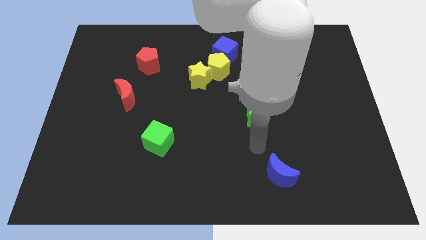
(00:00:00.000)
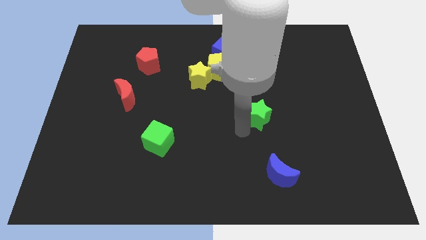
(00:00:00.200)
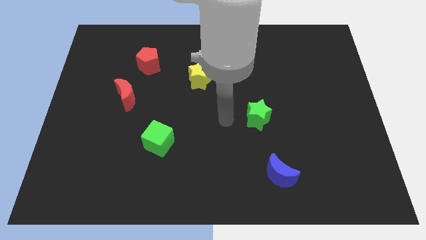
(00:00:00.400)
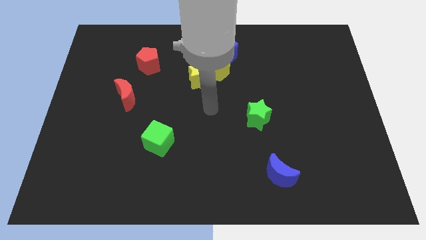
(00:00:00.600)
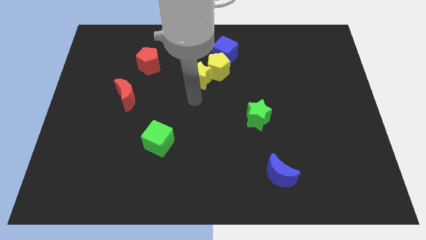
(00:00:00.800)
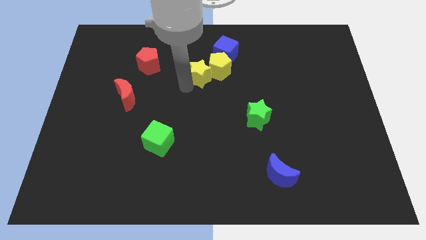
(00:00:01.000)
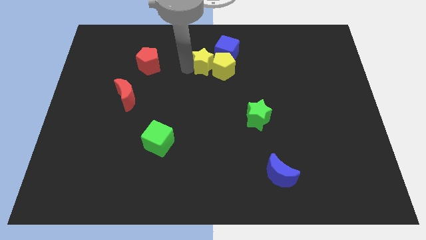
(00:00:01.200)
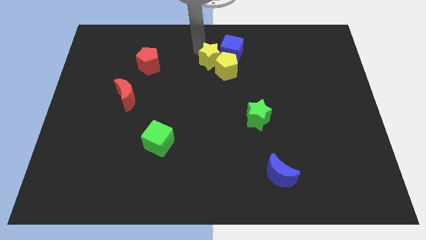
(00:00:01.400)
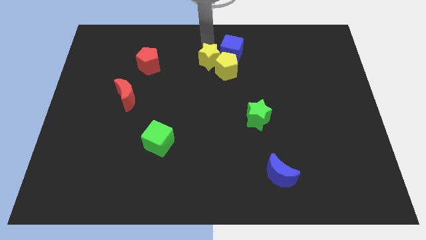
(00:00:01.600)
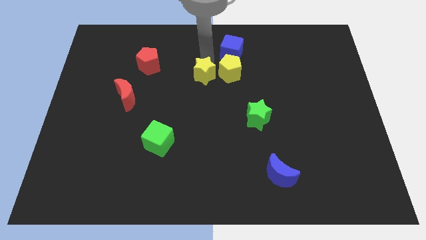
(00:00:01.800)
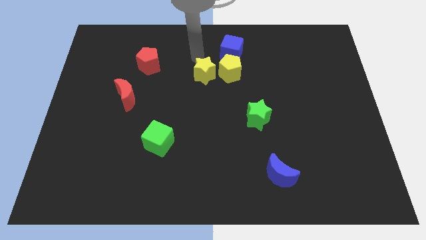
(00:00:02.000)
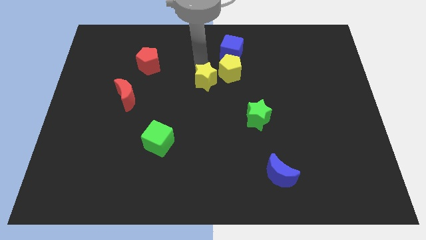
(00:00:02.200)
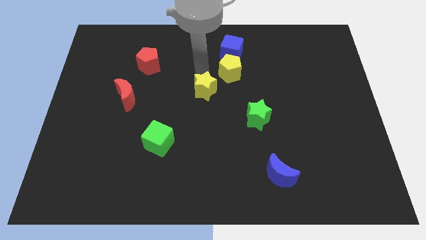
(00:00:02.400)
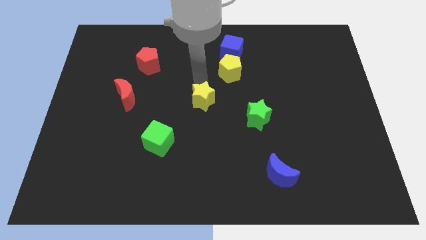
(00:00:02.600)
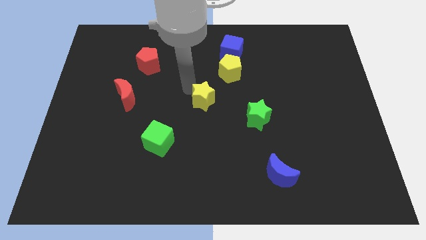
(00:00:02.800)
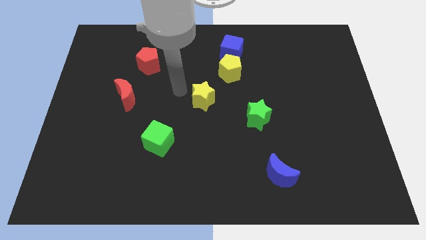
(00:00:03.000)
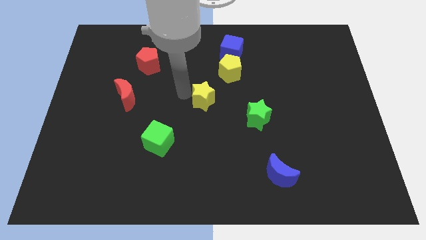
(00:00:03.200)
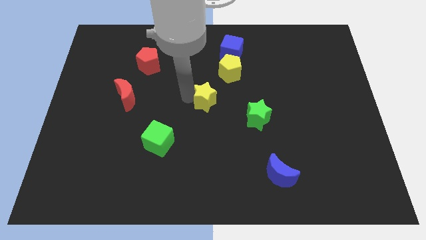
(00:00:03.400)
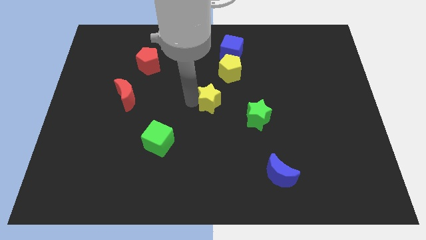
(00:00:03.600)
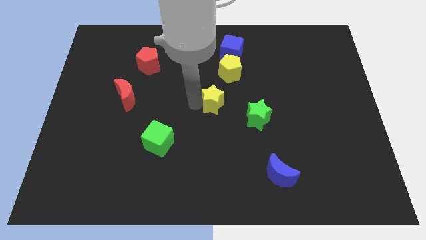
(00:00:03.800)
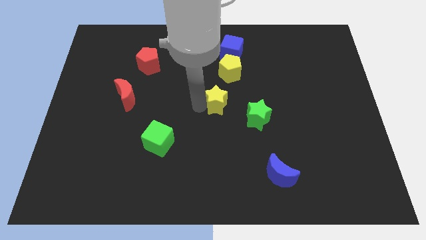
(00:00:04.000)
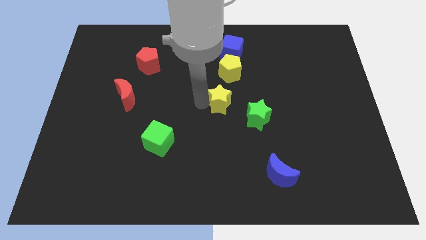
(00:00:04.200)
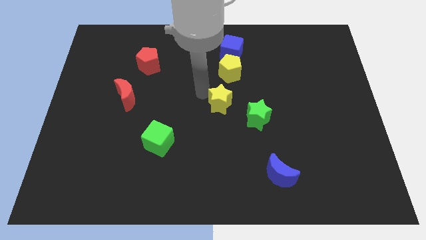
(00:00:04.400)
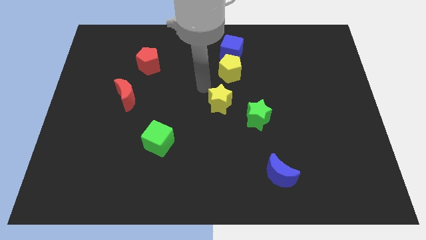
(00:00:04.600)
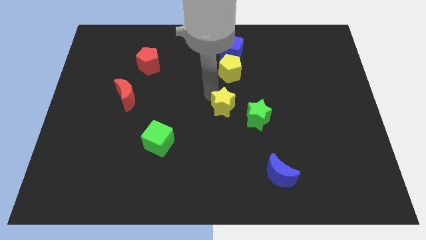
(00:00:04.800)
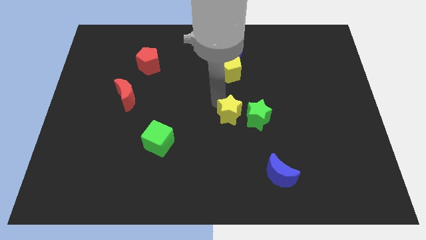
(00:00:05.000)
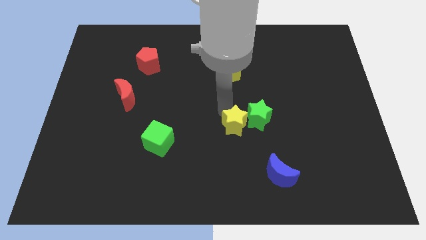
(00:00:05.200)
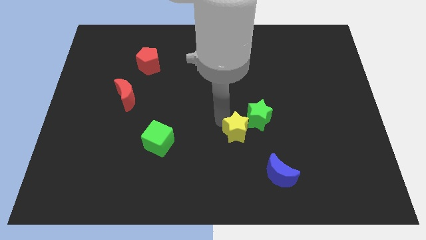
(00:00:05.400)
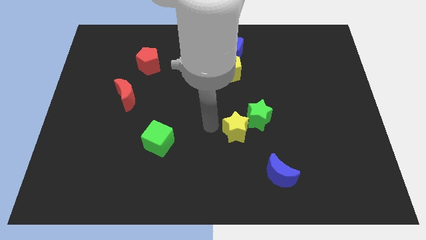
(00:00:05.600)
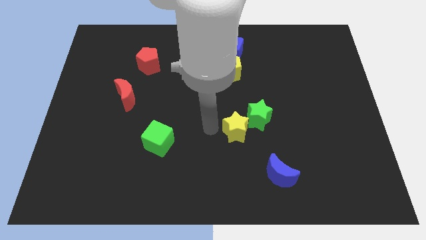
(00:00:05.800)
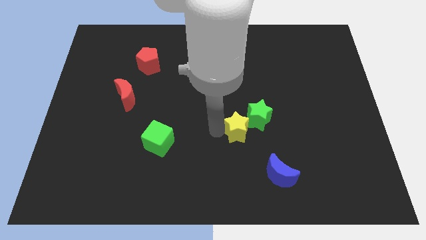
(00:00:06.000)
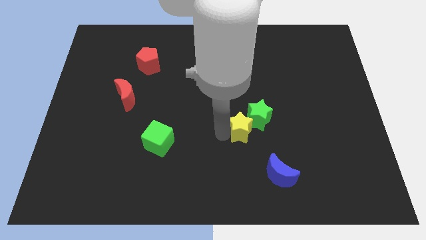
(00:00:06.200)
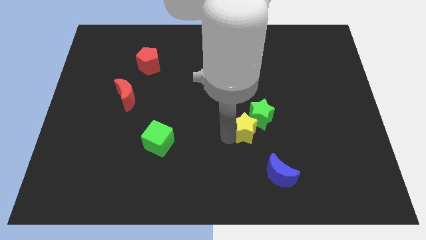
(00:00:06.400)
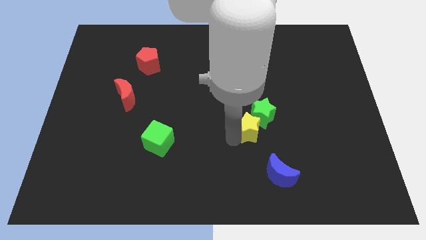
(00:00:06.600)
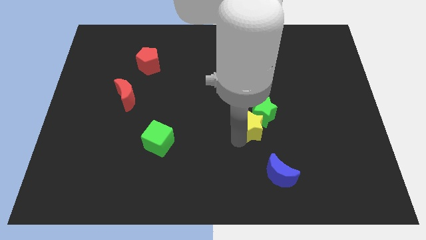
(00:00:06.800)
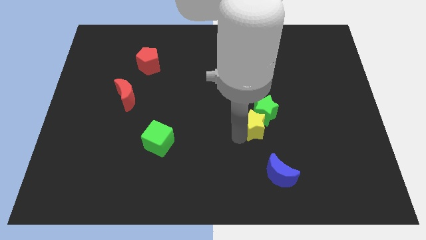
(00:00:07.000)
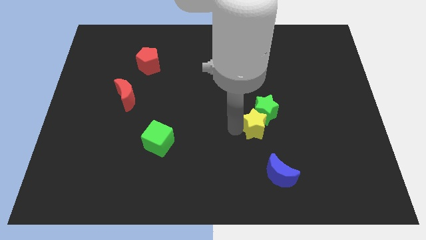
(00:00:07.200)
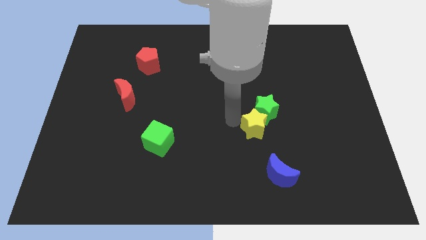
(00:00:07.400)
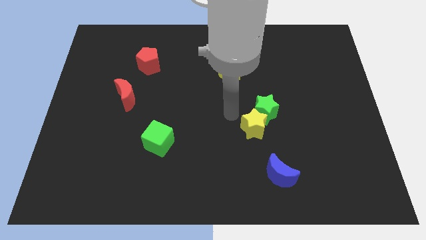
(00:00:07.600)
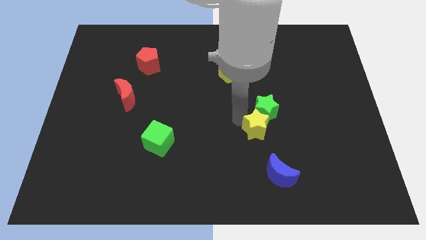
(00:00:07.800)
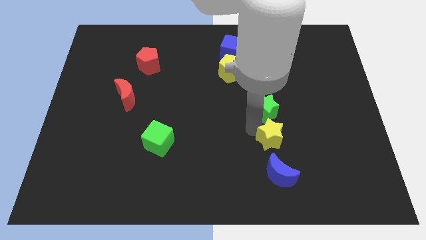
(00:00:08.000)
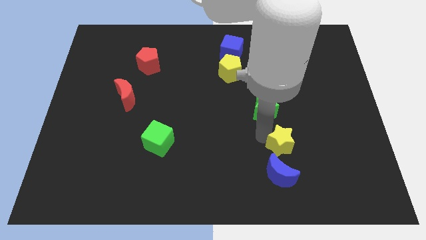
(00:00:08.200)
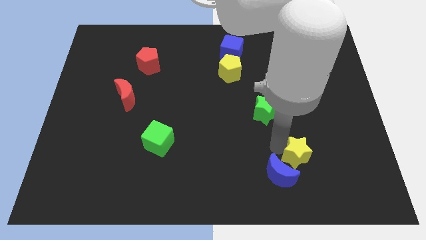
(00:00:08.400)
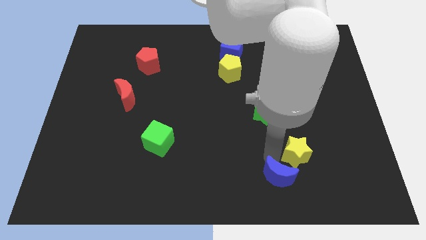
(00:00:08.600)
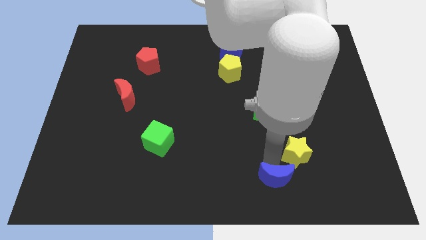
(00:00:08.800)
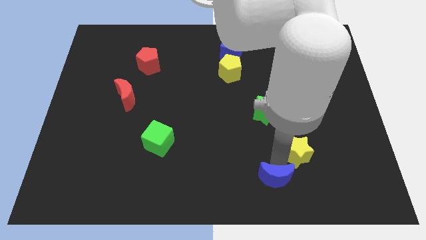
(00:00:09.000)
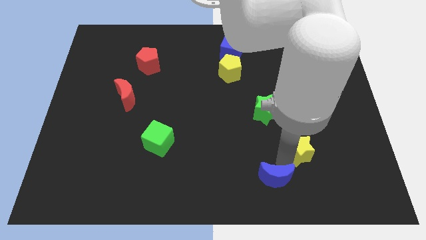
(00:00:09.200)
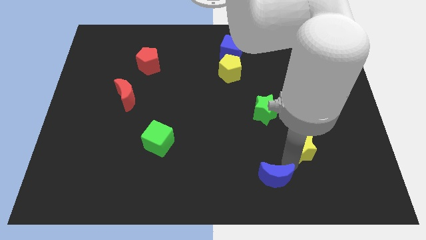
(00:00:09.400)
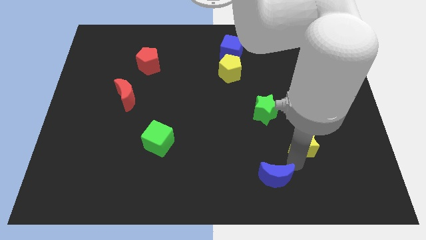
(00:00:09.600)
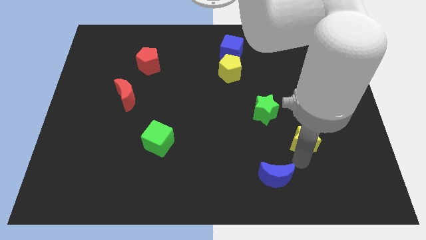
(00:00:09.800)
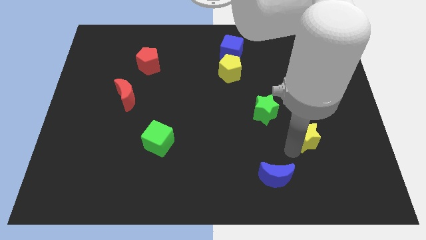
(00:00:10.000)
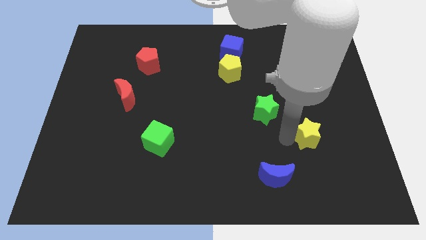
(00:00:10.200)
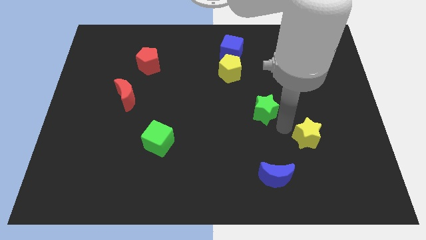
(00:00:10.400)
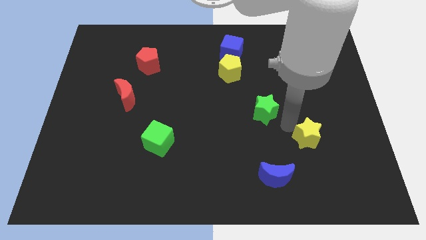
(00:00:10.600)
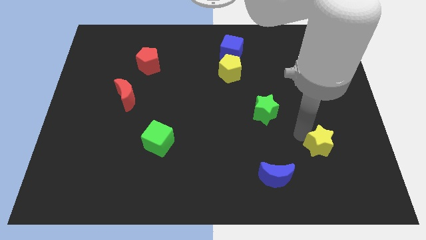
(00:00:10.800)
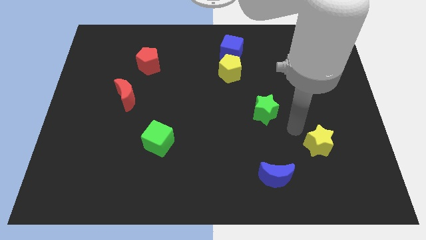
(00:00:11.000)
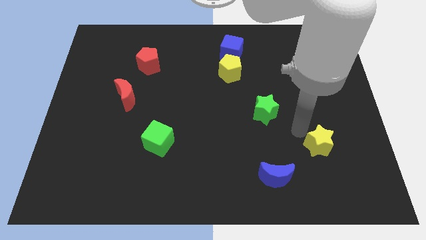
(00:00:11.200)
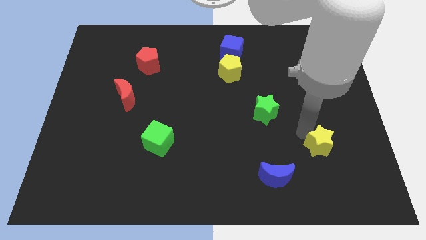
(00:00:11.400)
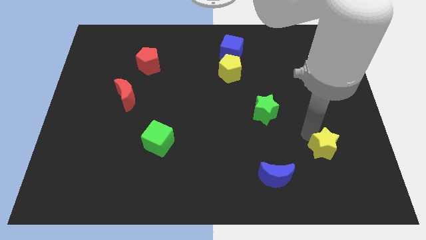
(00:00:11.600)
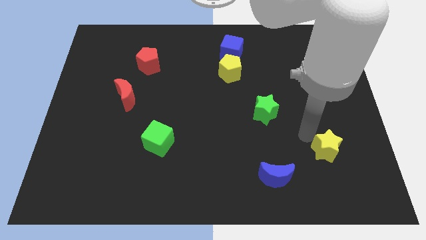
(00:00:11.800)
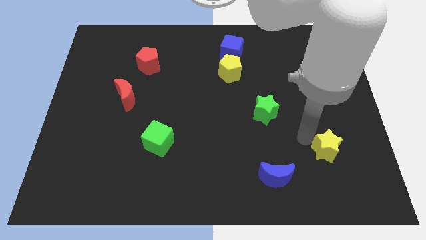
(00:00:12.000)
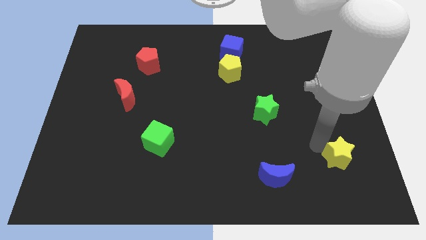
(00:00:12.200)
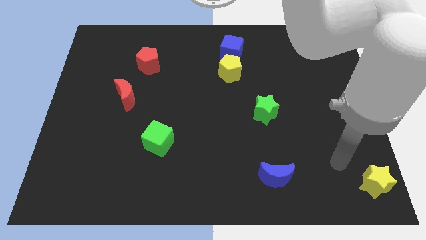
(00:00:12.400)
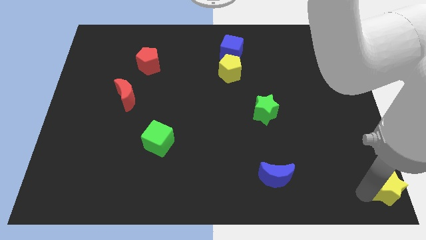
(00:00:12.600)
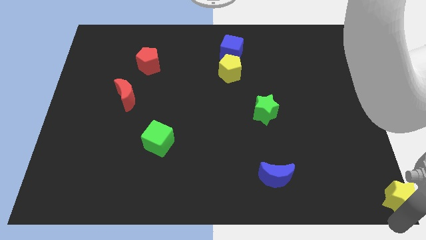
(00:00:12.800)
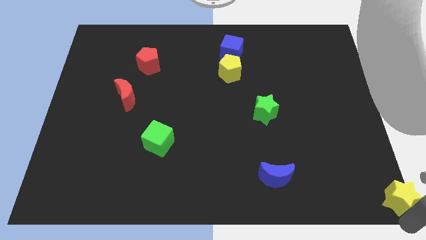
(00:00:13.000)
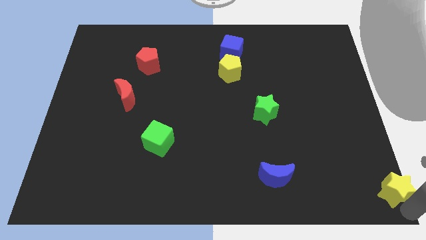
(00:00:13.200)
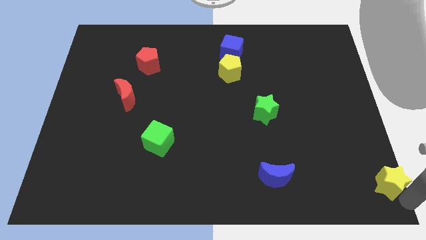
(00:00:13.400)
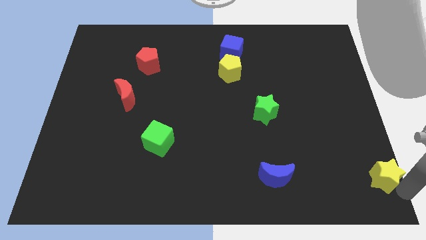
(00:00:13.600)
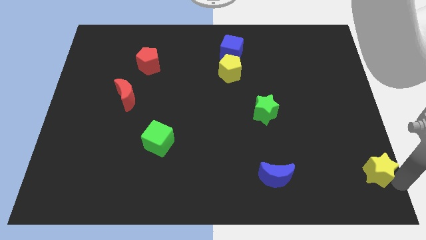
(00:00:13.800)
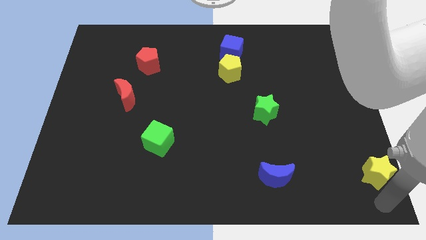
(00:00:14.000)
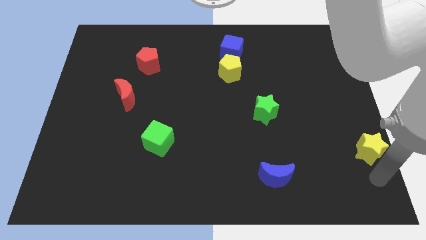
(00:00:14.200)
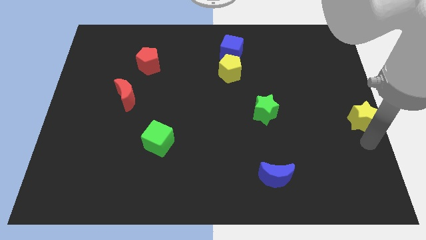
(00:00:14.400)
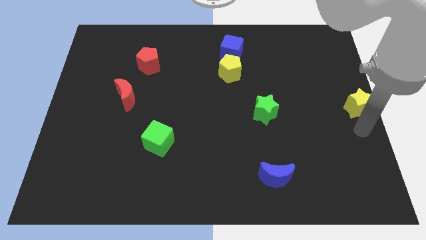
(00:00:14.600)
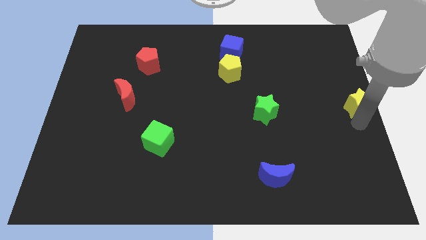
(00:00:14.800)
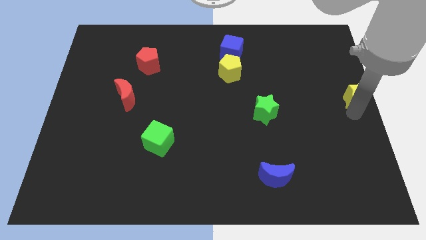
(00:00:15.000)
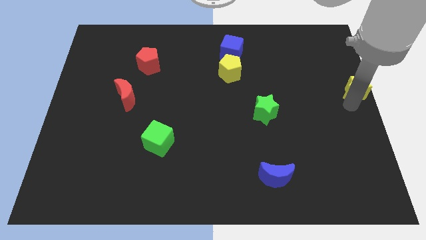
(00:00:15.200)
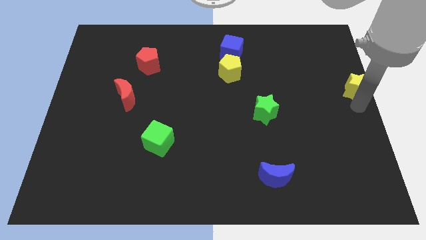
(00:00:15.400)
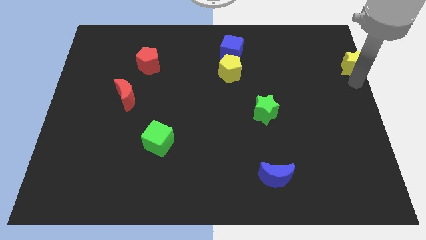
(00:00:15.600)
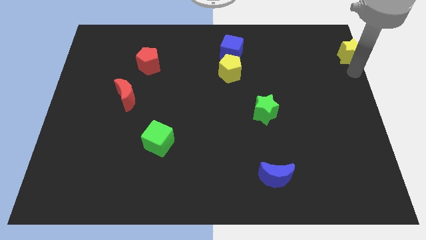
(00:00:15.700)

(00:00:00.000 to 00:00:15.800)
put the yellow star to the top right
